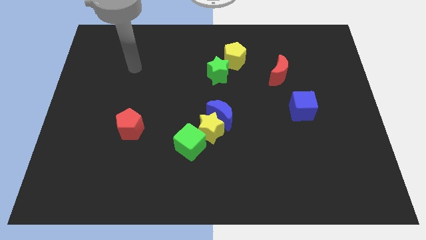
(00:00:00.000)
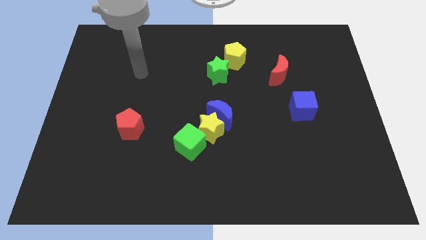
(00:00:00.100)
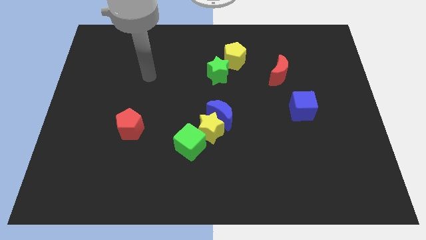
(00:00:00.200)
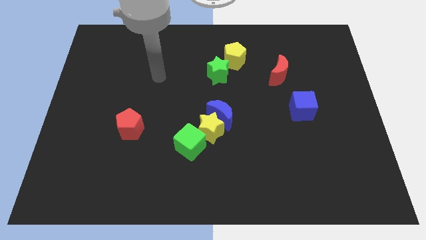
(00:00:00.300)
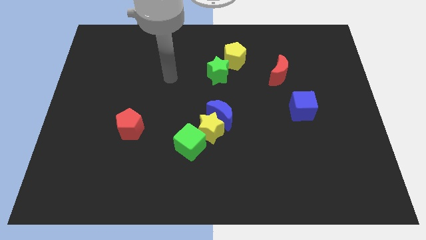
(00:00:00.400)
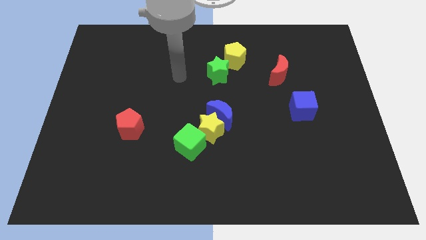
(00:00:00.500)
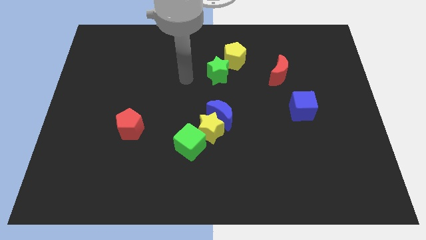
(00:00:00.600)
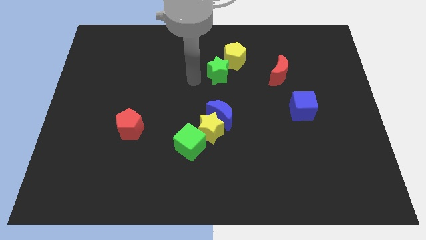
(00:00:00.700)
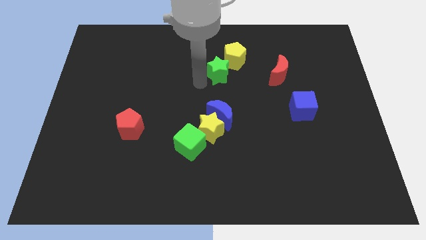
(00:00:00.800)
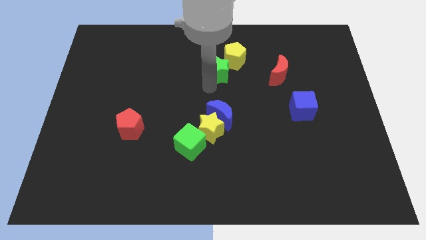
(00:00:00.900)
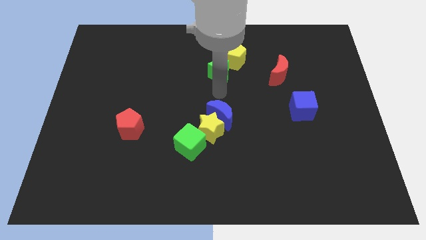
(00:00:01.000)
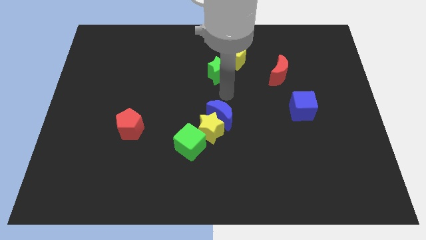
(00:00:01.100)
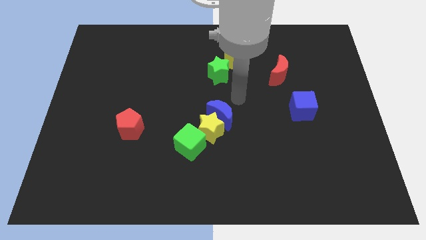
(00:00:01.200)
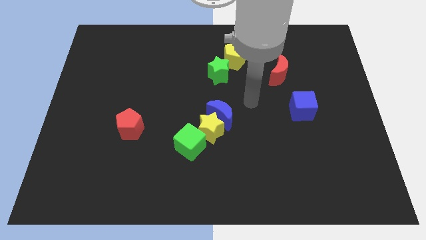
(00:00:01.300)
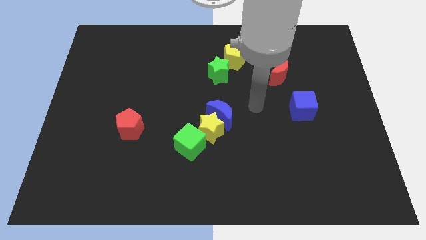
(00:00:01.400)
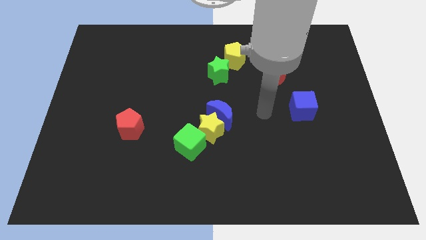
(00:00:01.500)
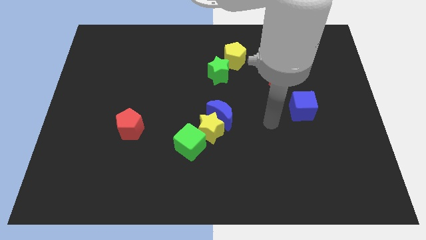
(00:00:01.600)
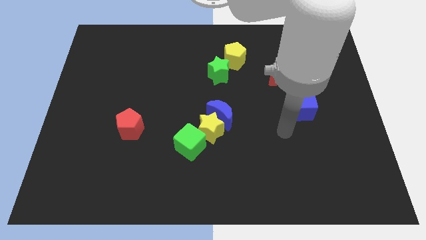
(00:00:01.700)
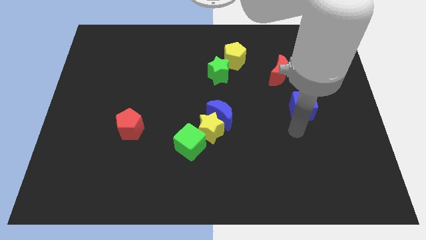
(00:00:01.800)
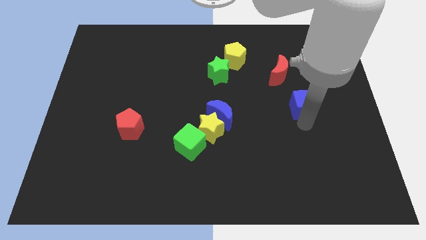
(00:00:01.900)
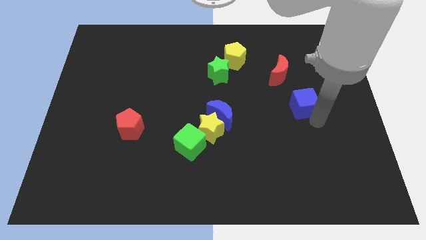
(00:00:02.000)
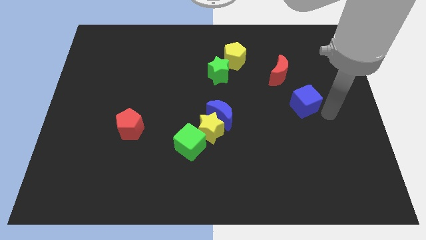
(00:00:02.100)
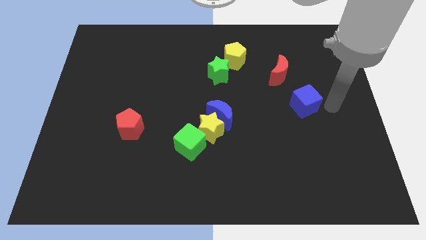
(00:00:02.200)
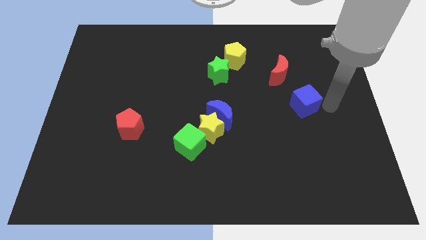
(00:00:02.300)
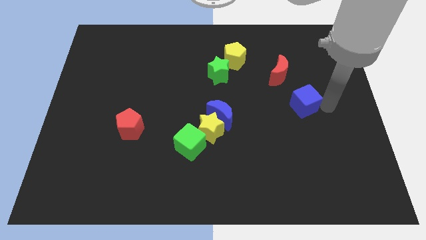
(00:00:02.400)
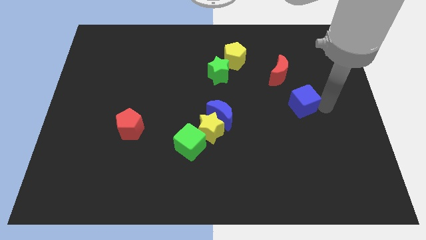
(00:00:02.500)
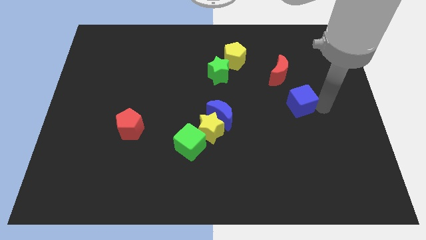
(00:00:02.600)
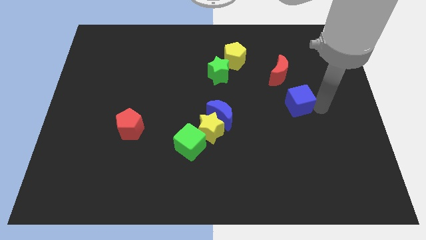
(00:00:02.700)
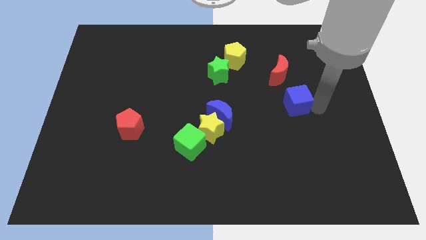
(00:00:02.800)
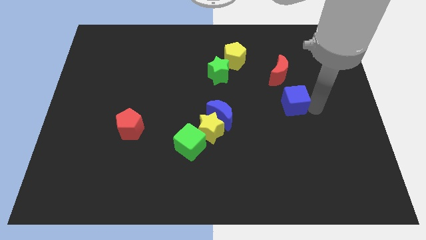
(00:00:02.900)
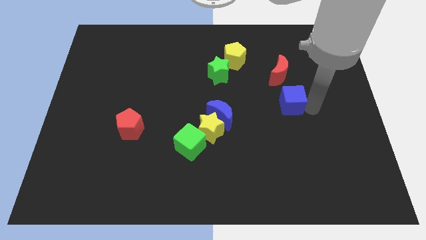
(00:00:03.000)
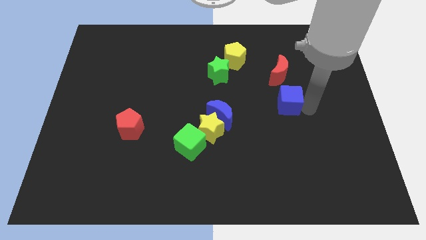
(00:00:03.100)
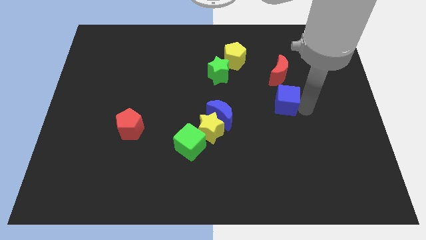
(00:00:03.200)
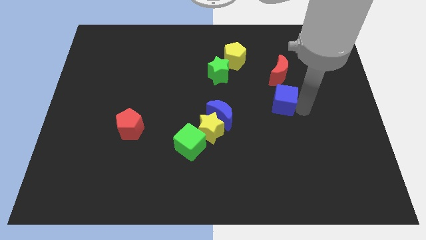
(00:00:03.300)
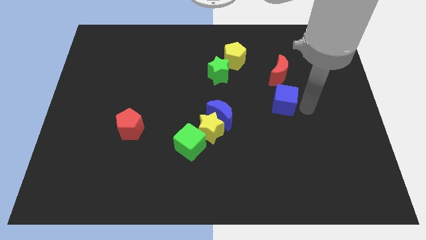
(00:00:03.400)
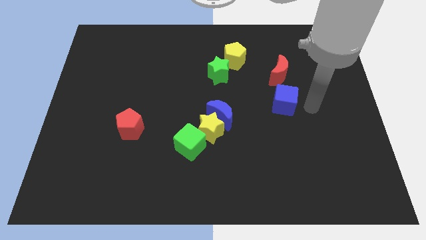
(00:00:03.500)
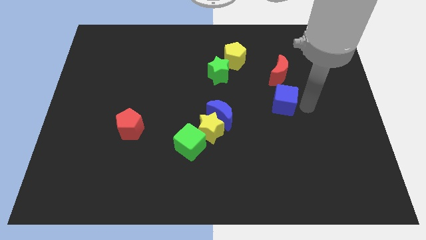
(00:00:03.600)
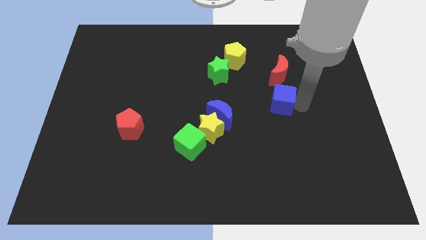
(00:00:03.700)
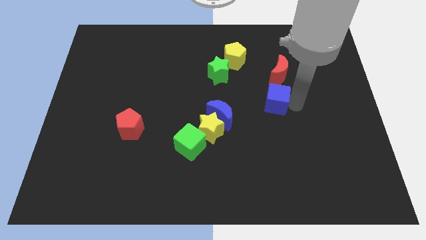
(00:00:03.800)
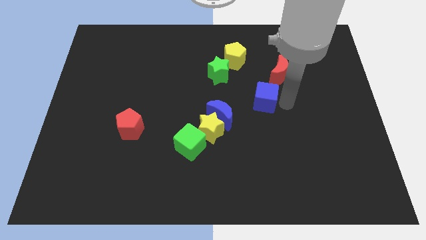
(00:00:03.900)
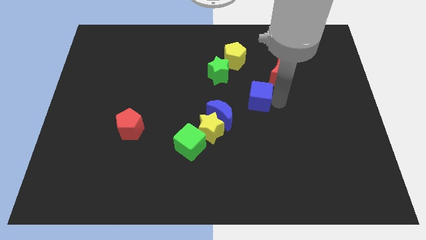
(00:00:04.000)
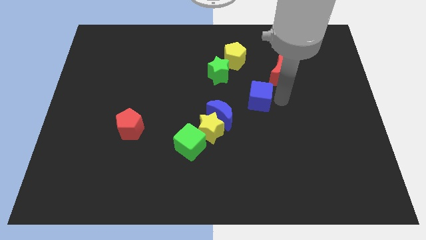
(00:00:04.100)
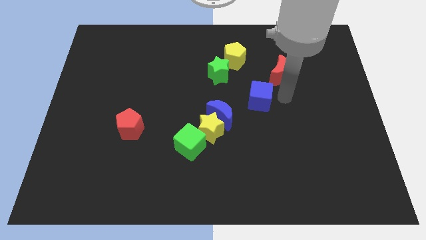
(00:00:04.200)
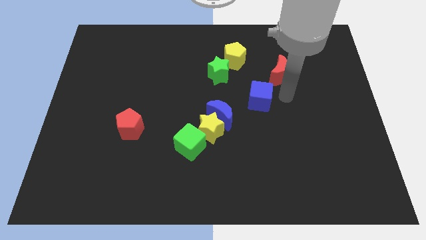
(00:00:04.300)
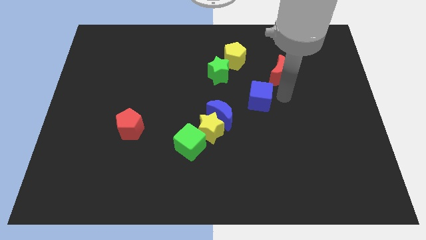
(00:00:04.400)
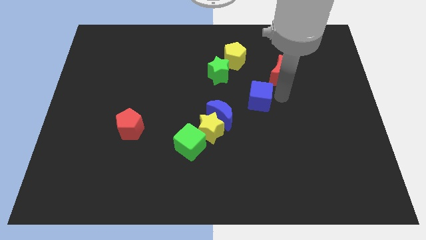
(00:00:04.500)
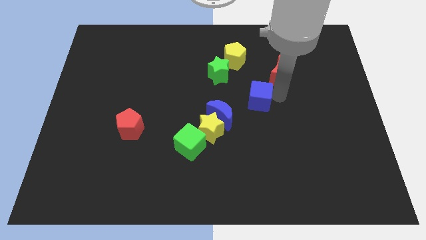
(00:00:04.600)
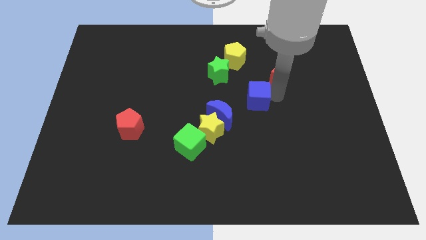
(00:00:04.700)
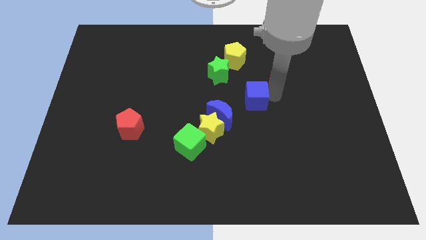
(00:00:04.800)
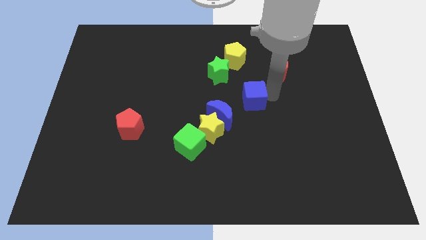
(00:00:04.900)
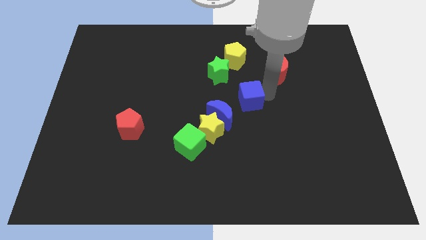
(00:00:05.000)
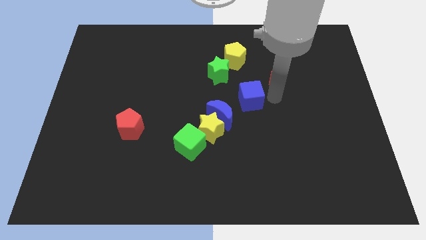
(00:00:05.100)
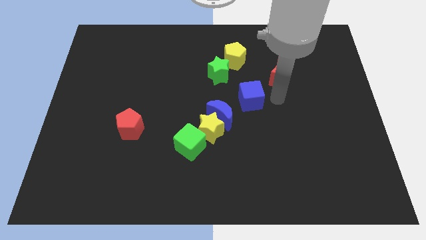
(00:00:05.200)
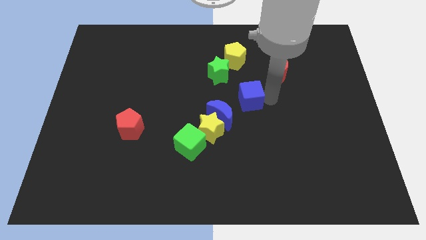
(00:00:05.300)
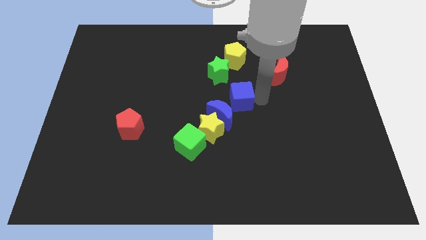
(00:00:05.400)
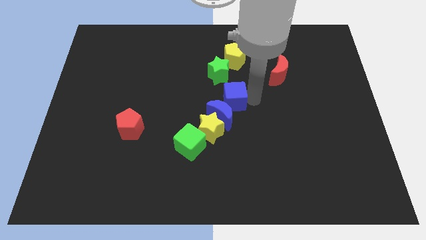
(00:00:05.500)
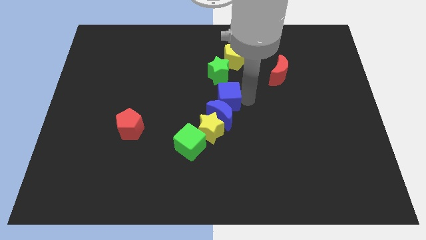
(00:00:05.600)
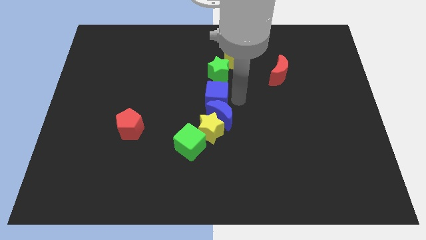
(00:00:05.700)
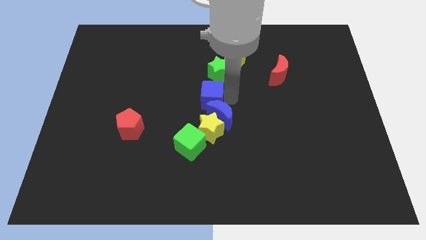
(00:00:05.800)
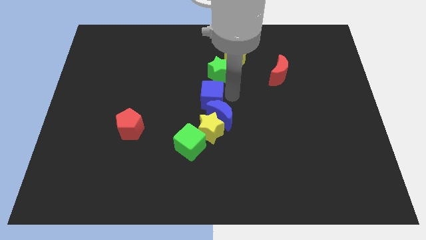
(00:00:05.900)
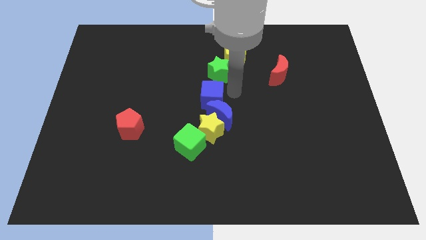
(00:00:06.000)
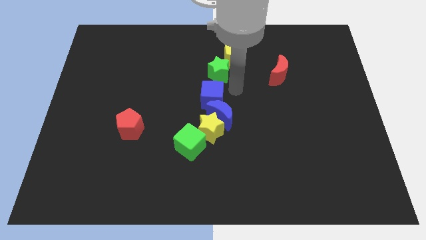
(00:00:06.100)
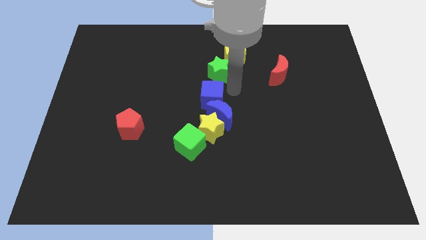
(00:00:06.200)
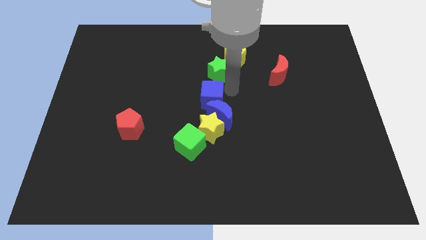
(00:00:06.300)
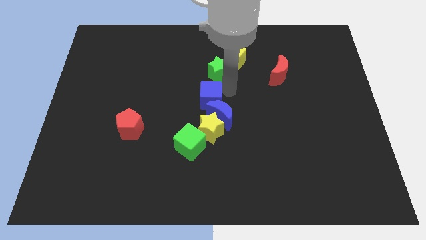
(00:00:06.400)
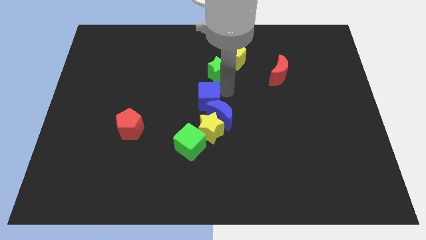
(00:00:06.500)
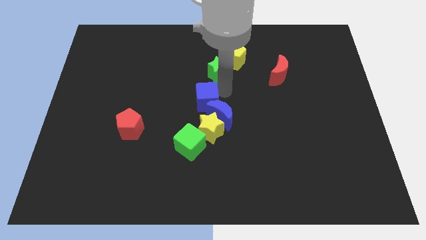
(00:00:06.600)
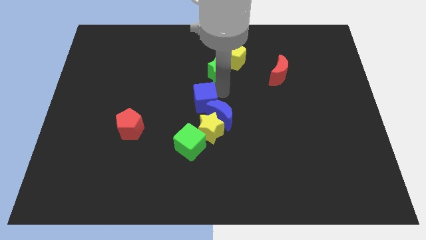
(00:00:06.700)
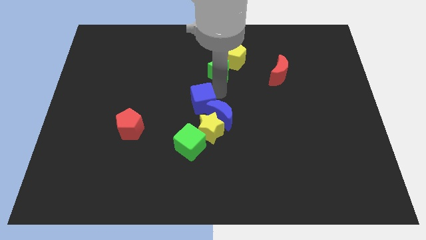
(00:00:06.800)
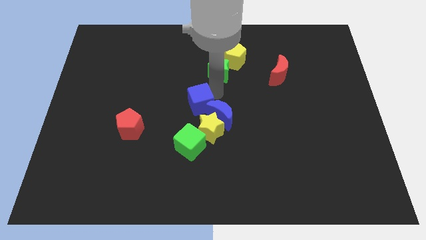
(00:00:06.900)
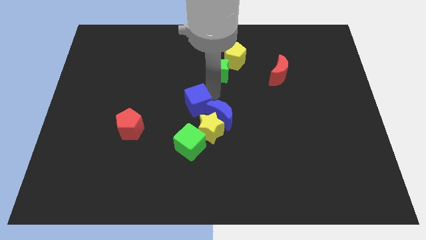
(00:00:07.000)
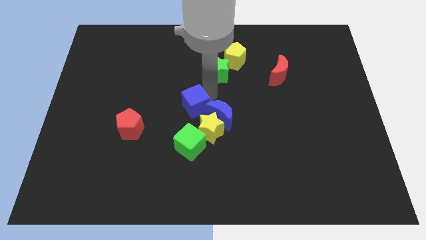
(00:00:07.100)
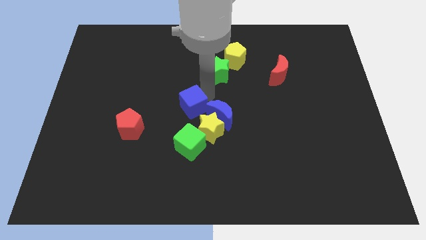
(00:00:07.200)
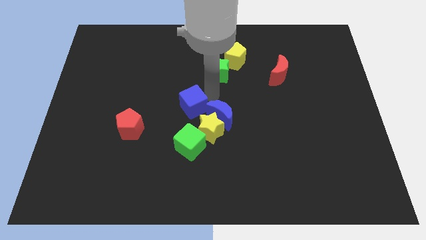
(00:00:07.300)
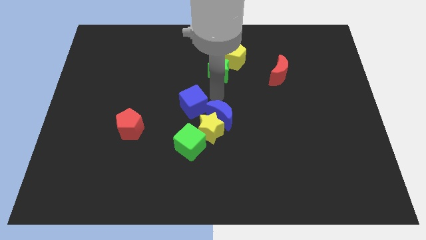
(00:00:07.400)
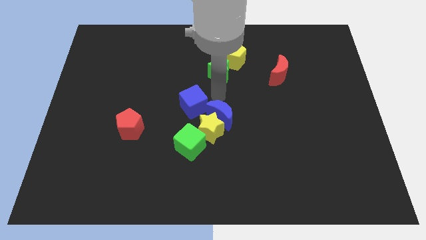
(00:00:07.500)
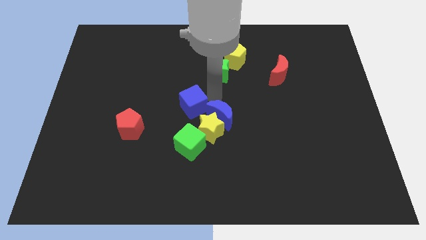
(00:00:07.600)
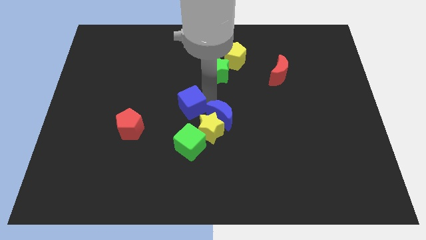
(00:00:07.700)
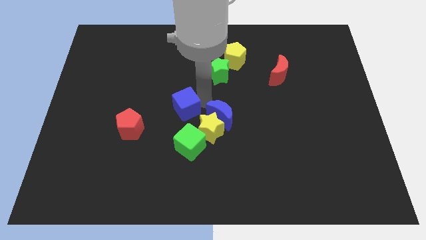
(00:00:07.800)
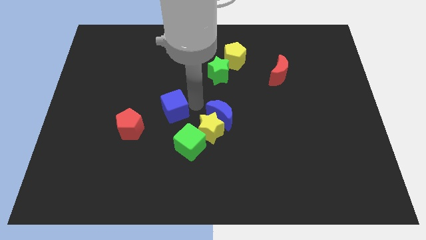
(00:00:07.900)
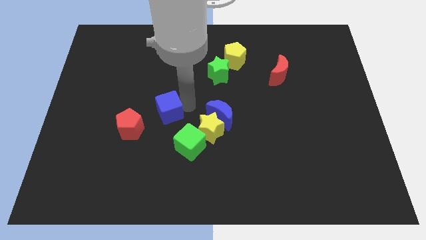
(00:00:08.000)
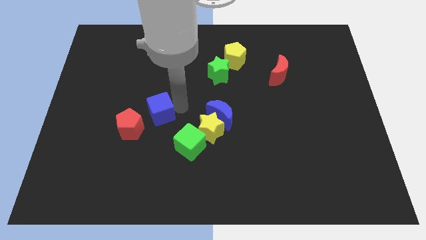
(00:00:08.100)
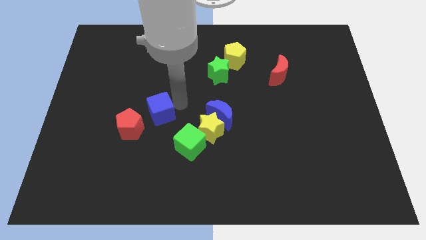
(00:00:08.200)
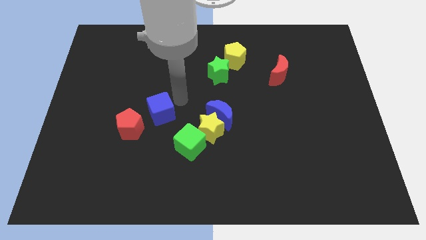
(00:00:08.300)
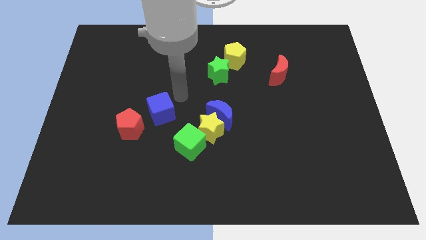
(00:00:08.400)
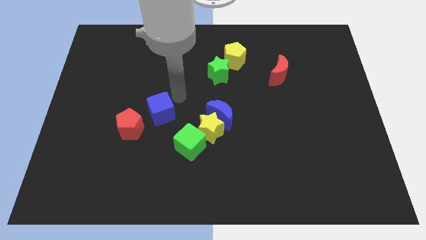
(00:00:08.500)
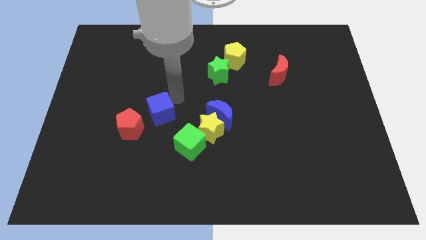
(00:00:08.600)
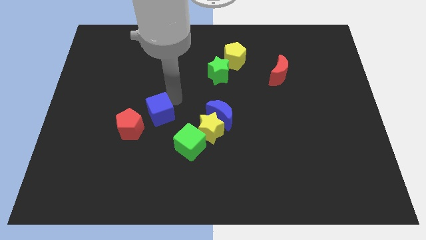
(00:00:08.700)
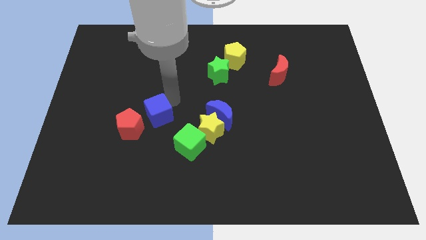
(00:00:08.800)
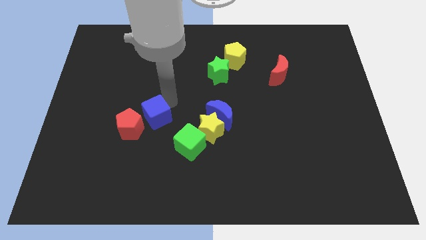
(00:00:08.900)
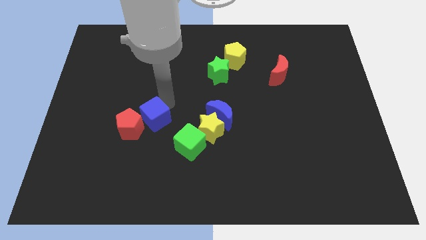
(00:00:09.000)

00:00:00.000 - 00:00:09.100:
move the blue cube towards the red pentagon
